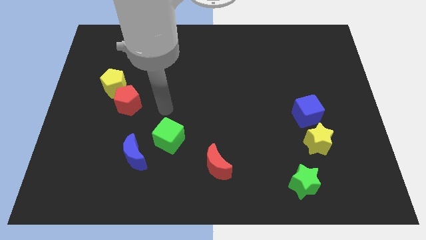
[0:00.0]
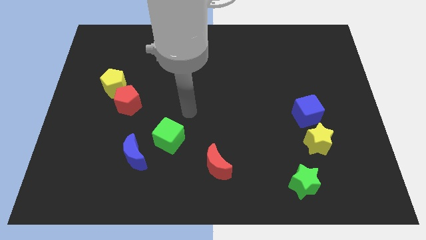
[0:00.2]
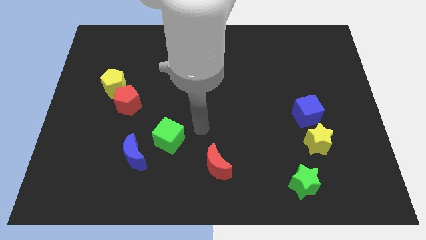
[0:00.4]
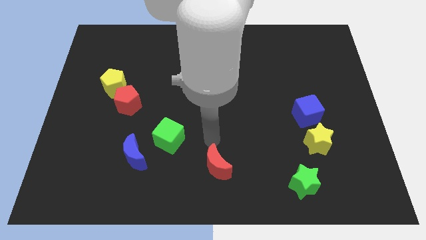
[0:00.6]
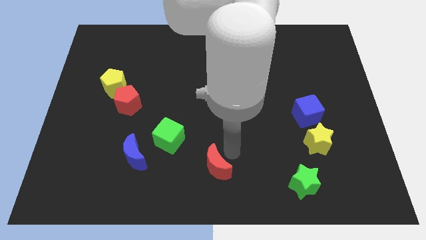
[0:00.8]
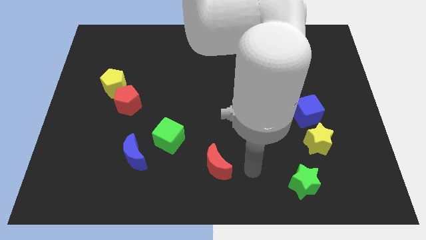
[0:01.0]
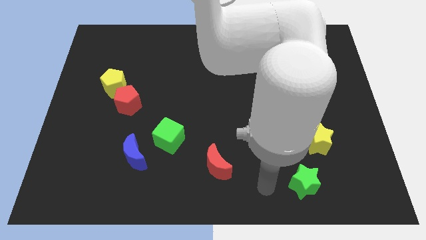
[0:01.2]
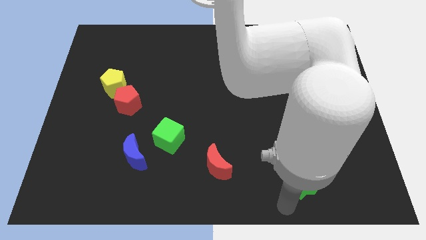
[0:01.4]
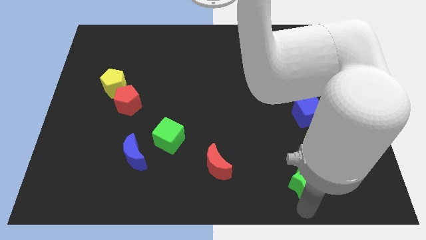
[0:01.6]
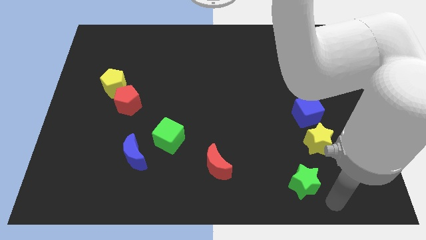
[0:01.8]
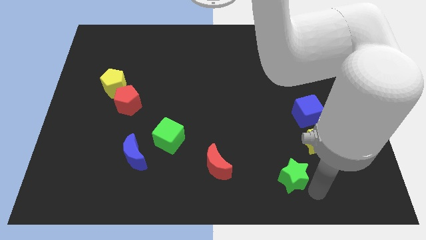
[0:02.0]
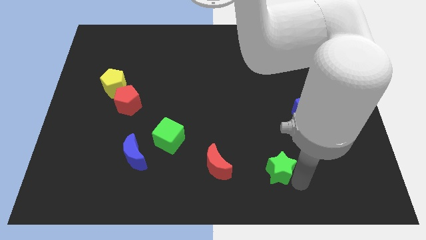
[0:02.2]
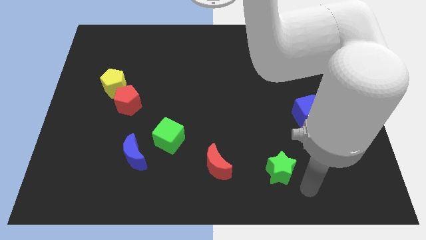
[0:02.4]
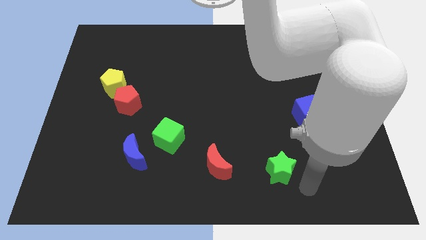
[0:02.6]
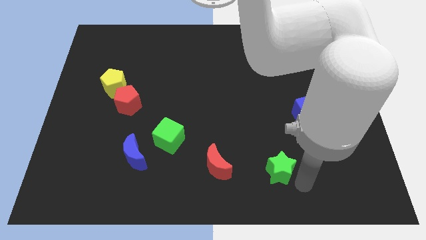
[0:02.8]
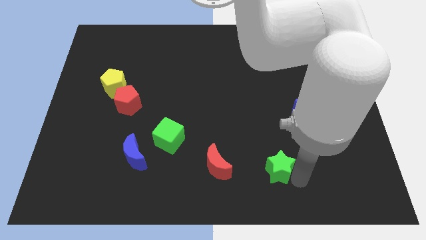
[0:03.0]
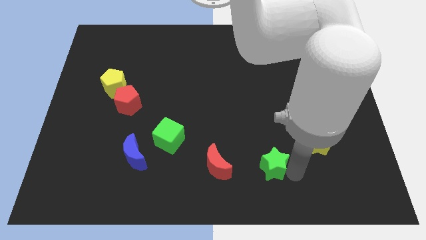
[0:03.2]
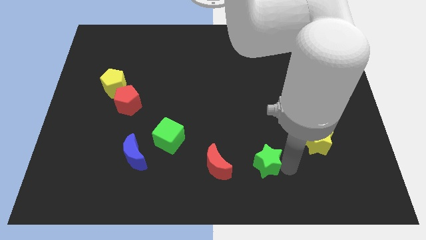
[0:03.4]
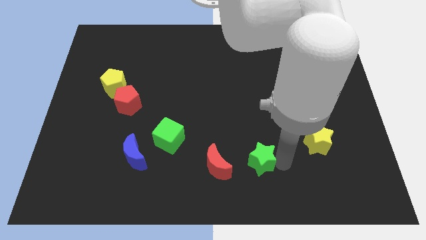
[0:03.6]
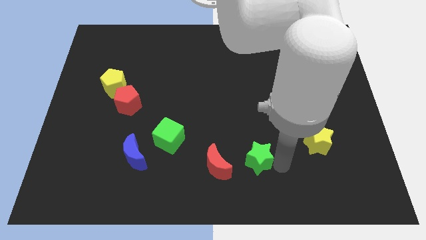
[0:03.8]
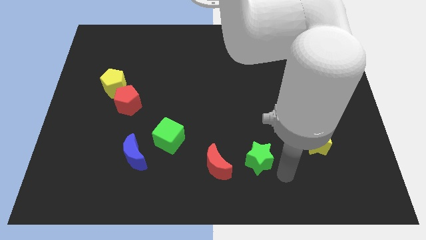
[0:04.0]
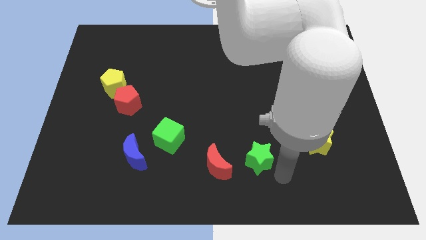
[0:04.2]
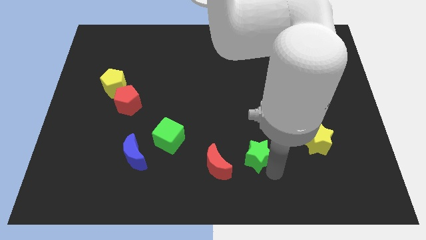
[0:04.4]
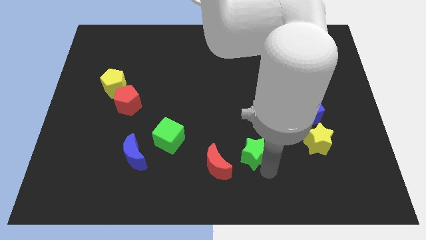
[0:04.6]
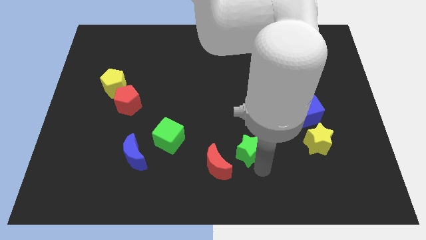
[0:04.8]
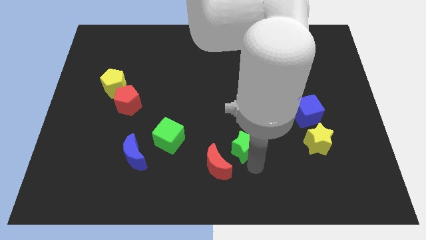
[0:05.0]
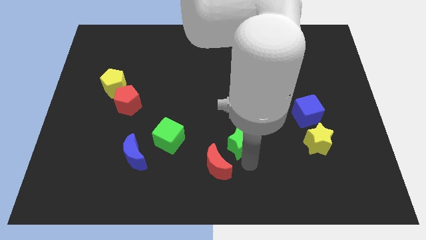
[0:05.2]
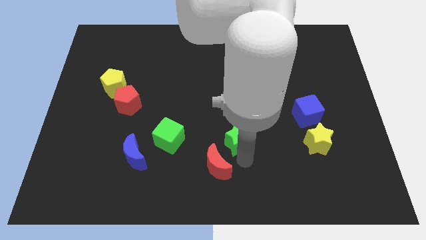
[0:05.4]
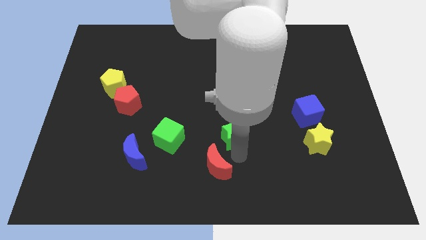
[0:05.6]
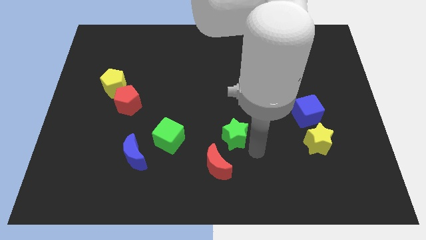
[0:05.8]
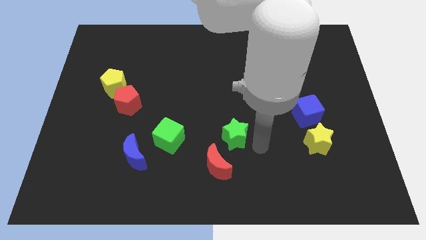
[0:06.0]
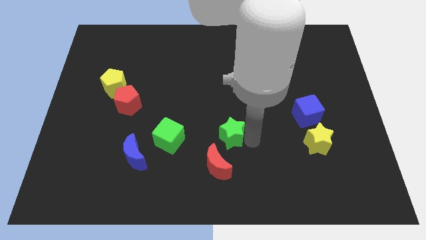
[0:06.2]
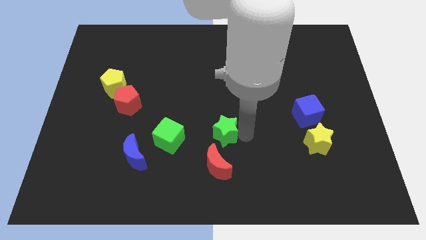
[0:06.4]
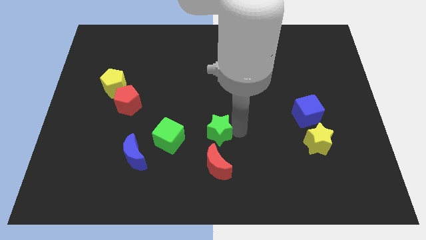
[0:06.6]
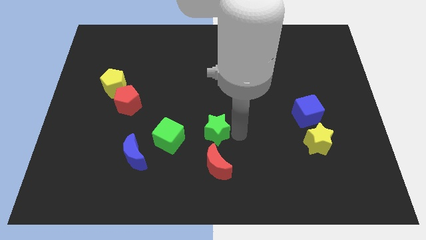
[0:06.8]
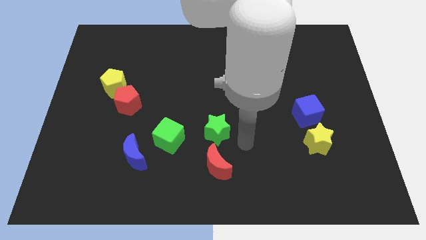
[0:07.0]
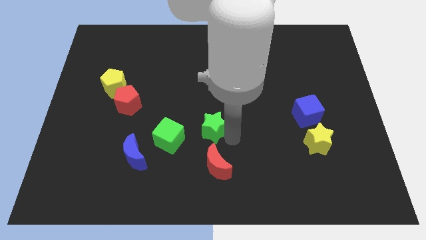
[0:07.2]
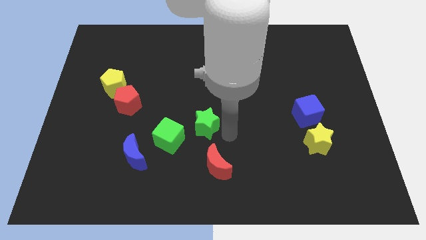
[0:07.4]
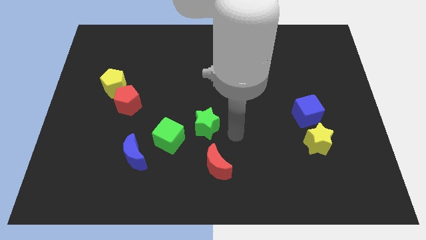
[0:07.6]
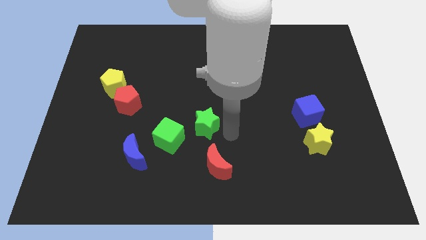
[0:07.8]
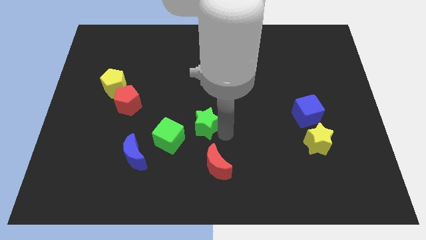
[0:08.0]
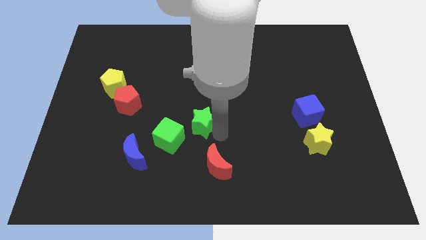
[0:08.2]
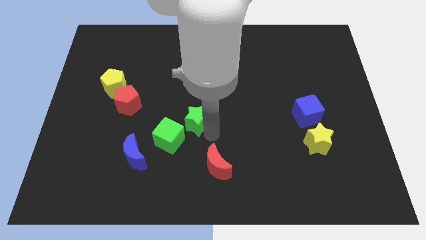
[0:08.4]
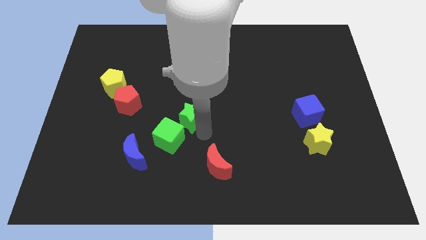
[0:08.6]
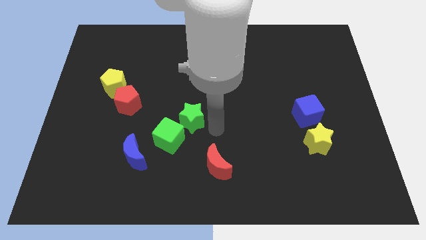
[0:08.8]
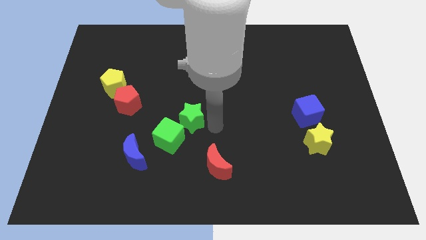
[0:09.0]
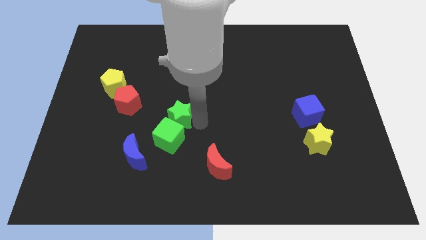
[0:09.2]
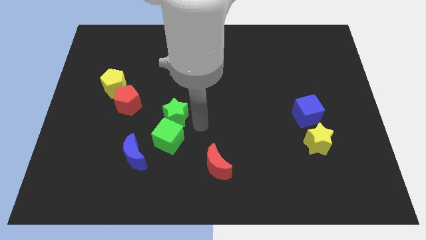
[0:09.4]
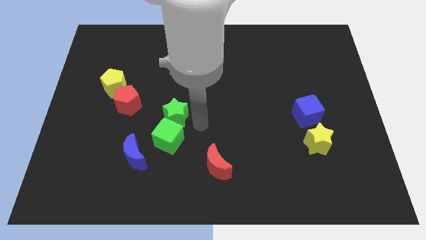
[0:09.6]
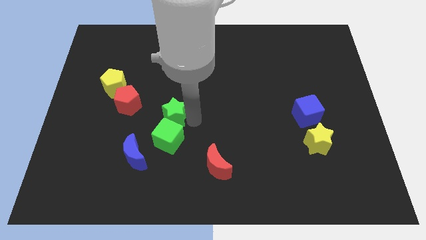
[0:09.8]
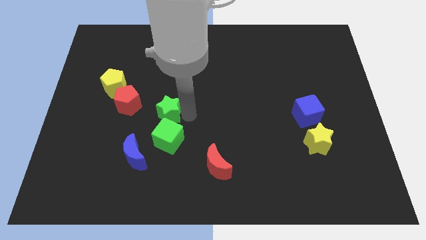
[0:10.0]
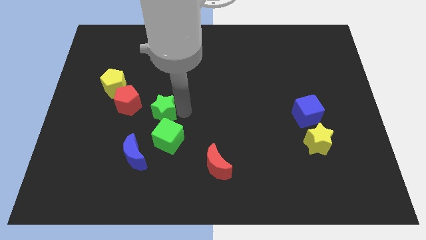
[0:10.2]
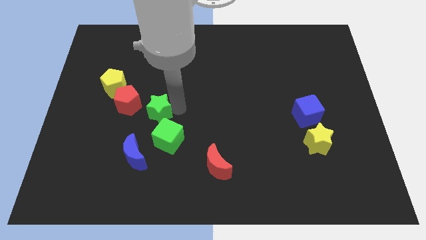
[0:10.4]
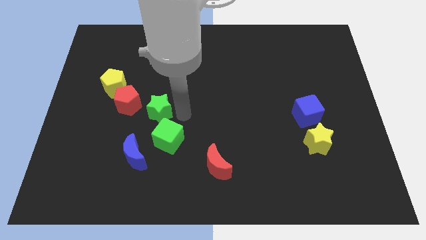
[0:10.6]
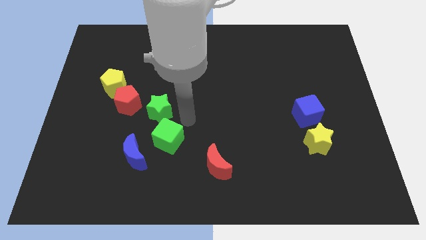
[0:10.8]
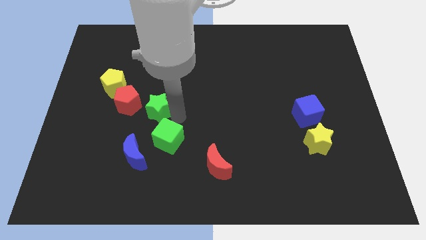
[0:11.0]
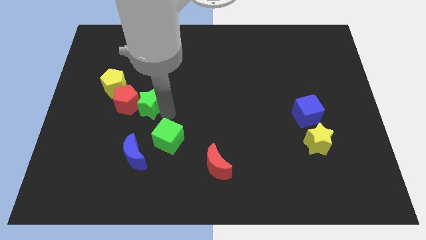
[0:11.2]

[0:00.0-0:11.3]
slide the green star next to the red pentagon

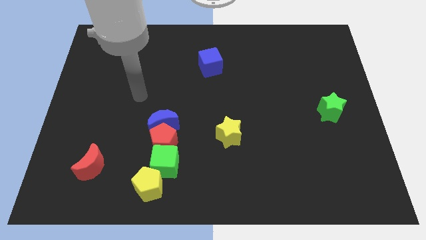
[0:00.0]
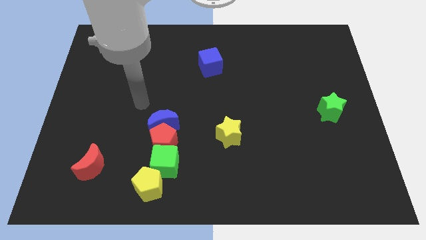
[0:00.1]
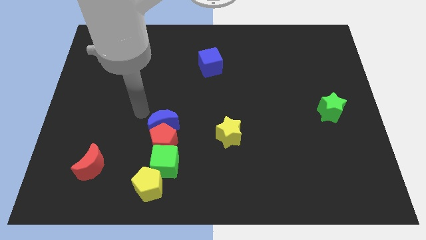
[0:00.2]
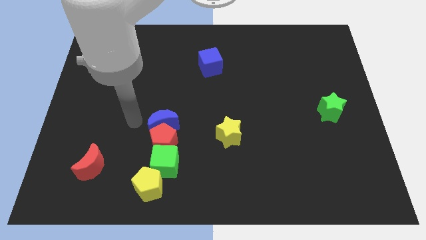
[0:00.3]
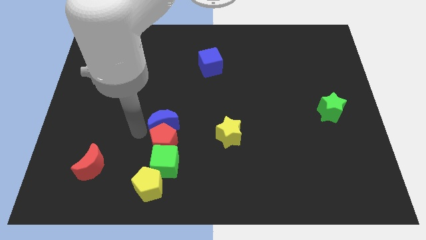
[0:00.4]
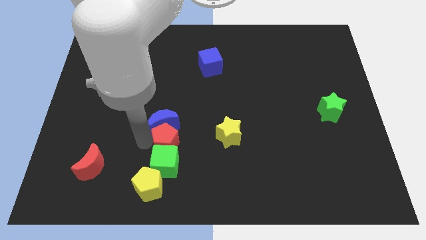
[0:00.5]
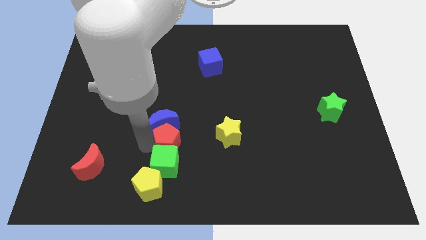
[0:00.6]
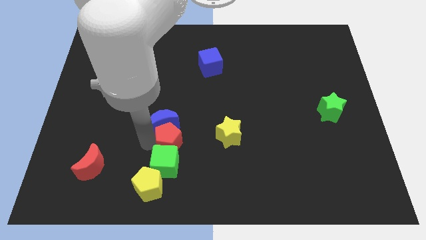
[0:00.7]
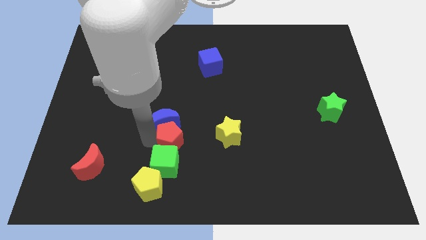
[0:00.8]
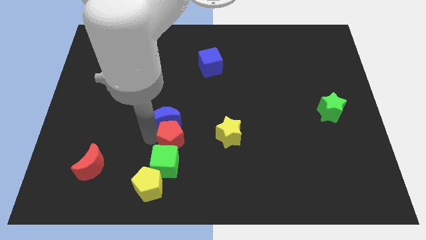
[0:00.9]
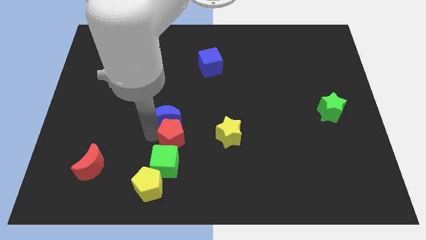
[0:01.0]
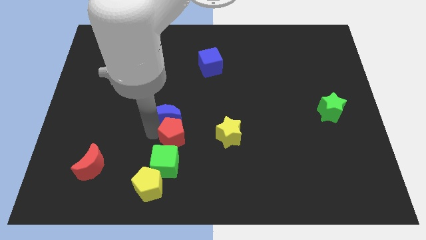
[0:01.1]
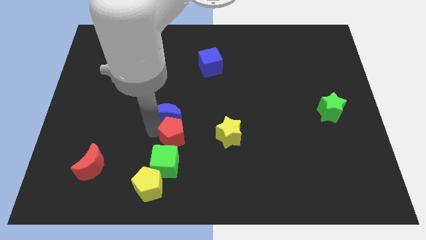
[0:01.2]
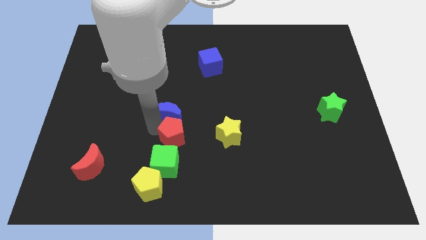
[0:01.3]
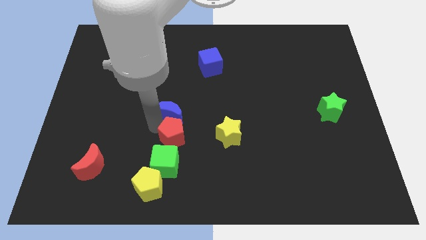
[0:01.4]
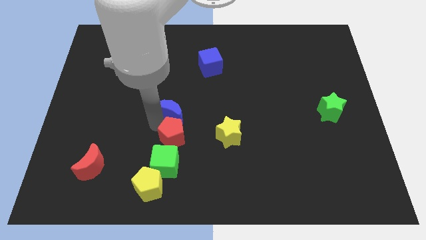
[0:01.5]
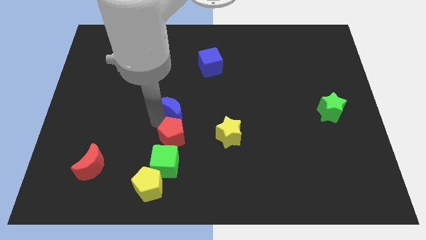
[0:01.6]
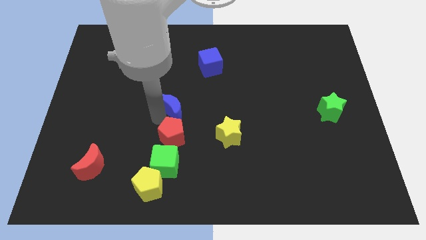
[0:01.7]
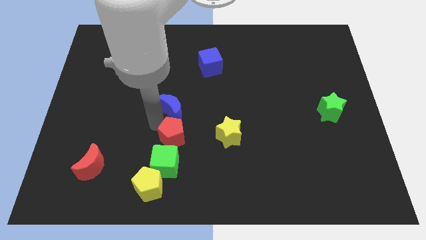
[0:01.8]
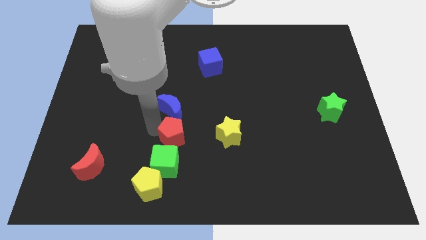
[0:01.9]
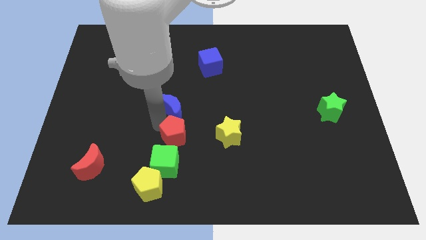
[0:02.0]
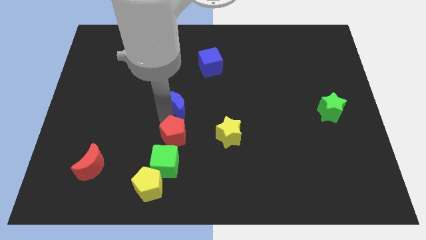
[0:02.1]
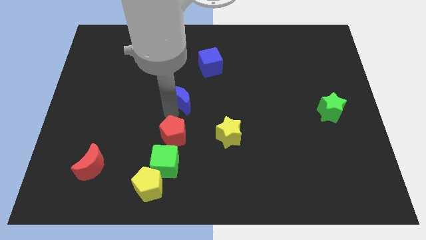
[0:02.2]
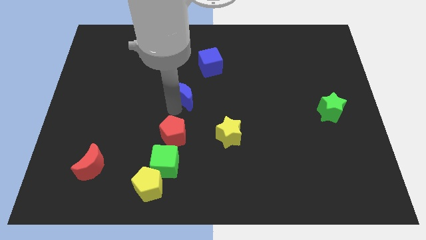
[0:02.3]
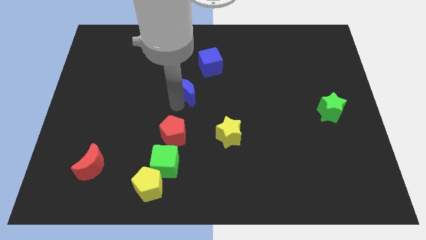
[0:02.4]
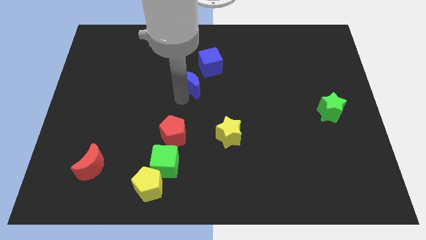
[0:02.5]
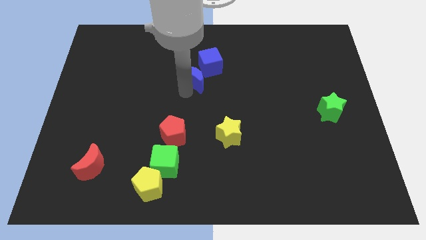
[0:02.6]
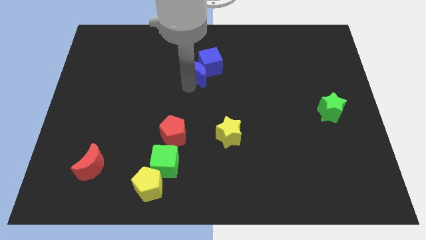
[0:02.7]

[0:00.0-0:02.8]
put the blue moon towards the blue cube

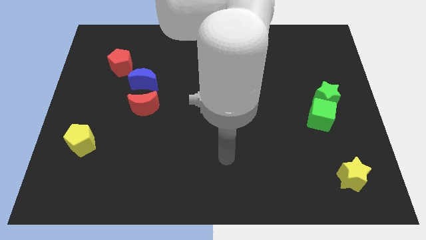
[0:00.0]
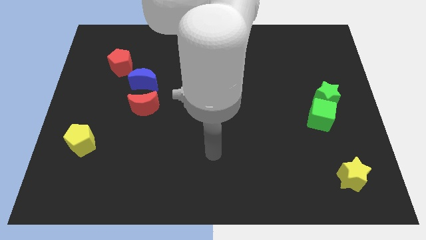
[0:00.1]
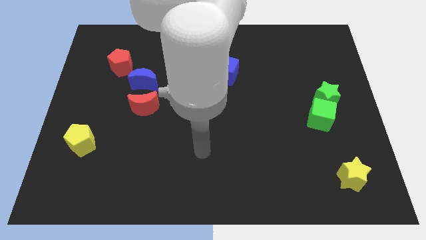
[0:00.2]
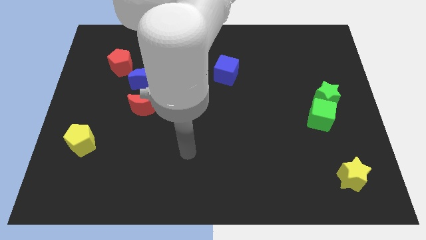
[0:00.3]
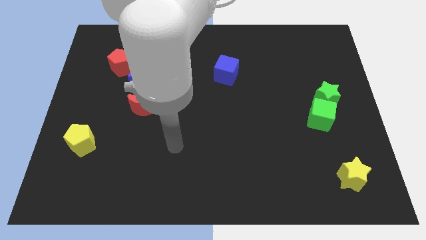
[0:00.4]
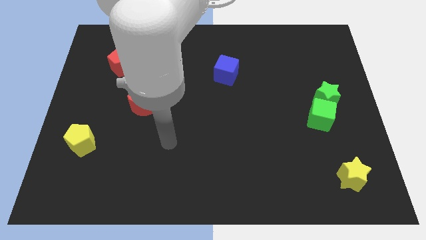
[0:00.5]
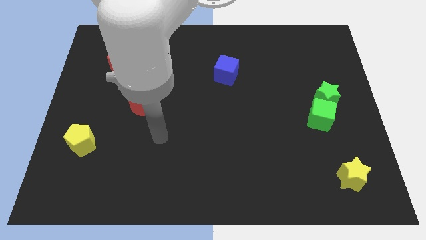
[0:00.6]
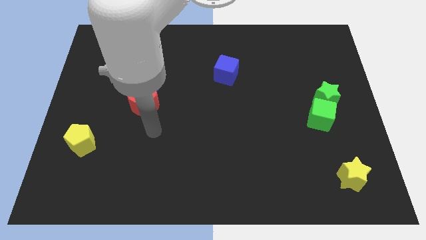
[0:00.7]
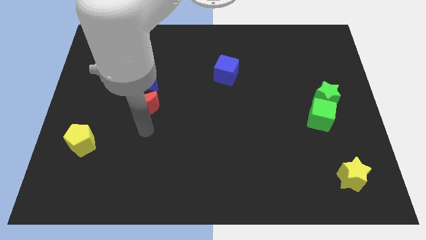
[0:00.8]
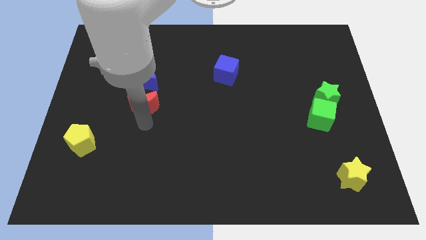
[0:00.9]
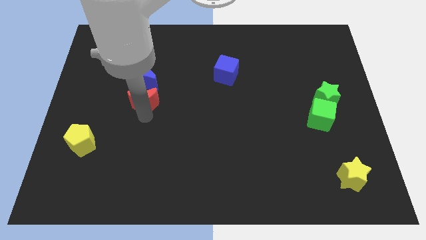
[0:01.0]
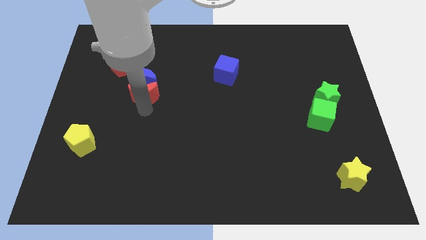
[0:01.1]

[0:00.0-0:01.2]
push the red moon next to the blue moon
